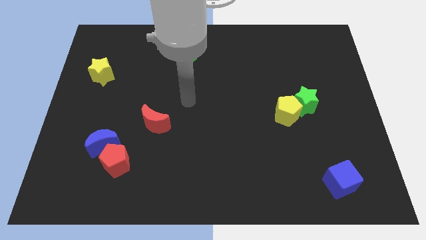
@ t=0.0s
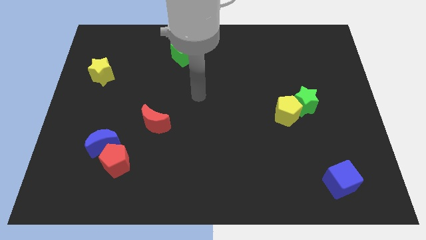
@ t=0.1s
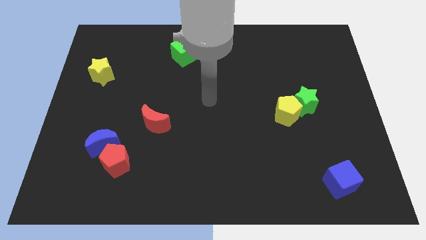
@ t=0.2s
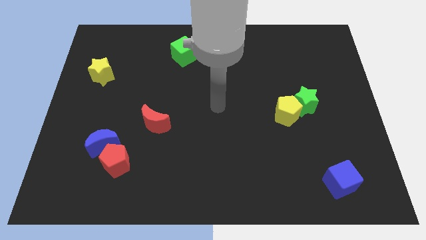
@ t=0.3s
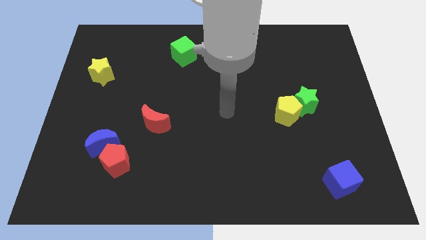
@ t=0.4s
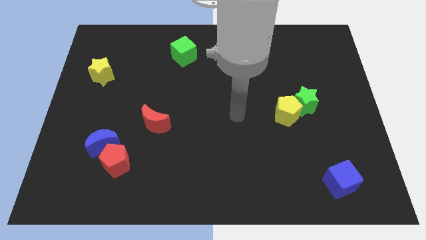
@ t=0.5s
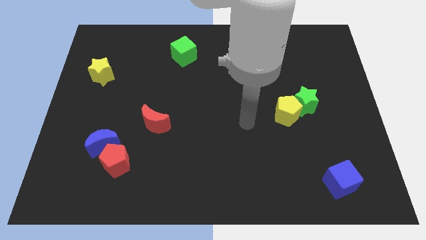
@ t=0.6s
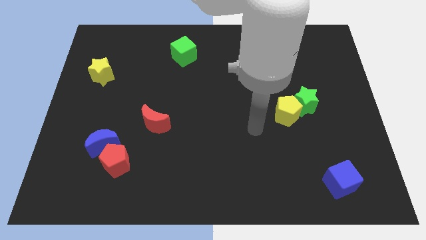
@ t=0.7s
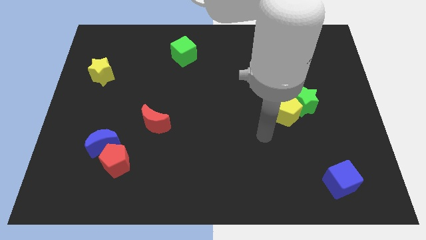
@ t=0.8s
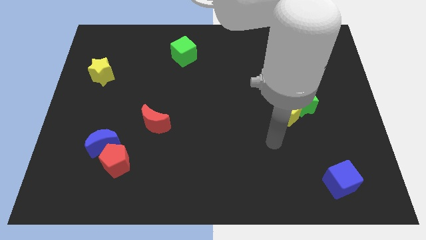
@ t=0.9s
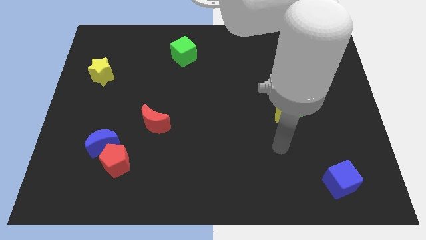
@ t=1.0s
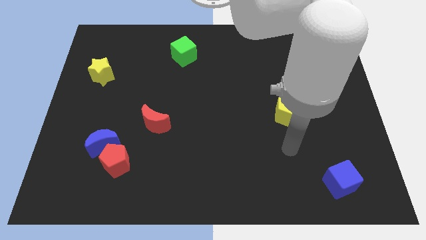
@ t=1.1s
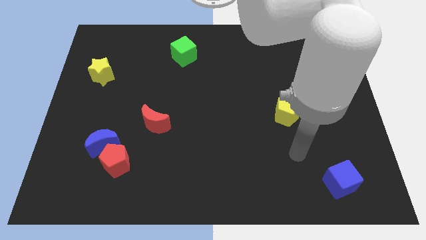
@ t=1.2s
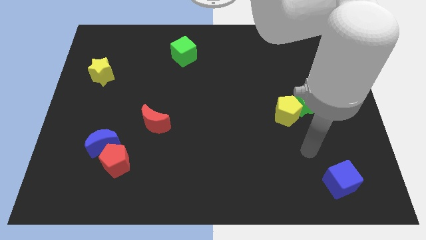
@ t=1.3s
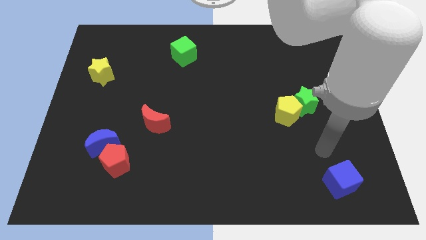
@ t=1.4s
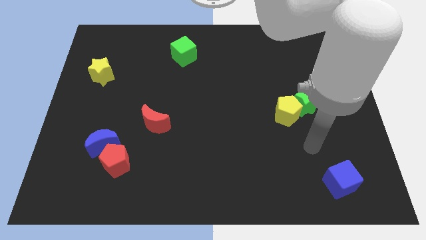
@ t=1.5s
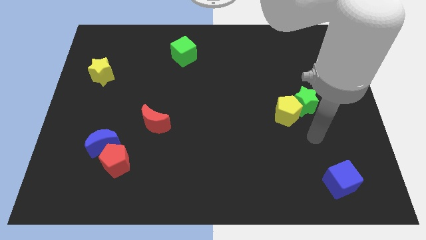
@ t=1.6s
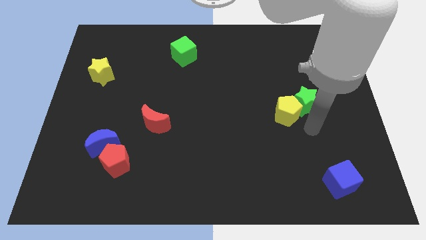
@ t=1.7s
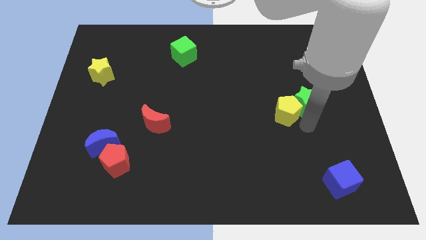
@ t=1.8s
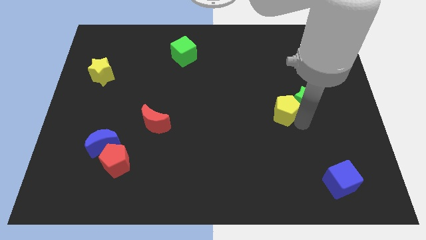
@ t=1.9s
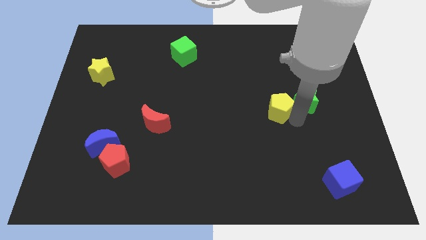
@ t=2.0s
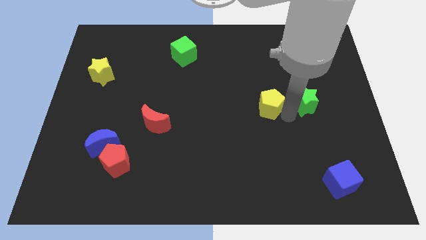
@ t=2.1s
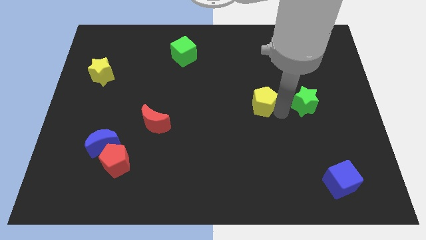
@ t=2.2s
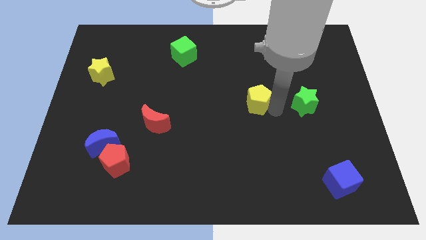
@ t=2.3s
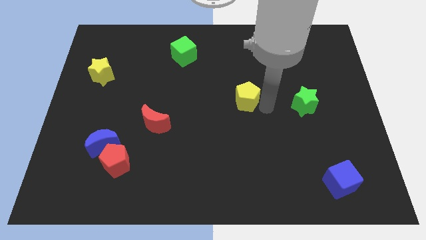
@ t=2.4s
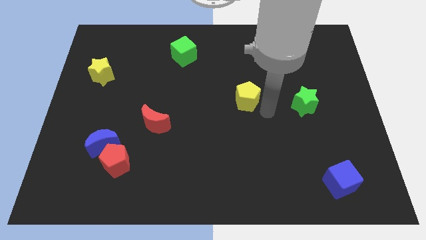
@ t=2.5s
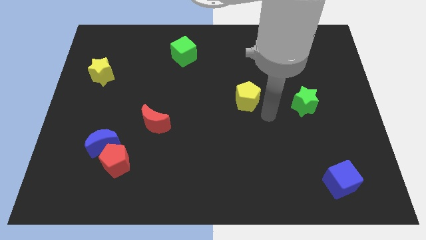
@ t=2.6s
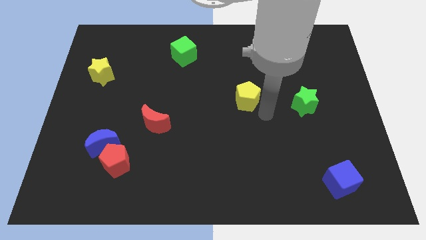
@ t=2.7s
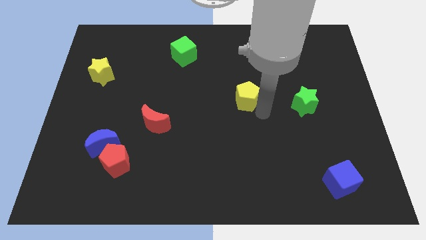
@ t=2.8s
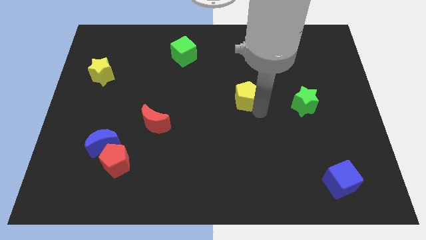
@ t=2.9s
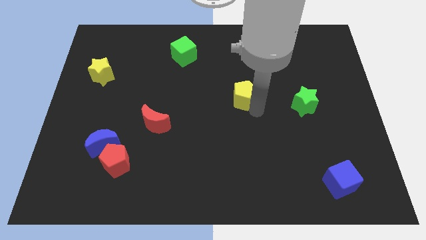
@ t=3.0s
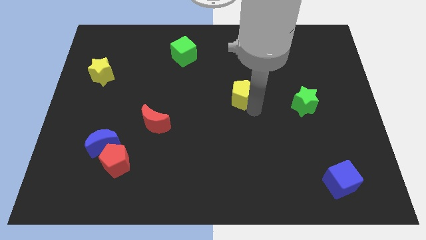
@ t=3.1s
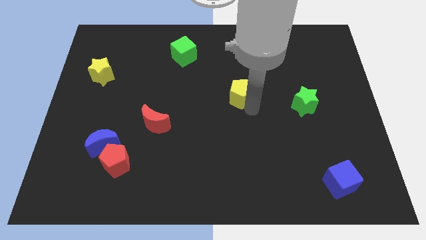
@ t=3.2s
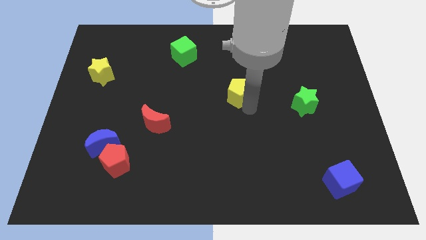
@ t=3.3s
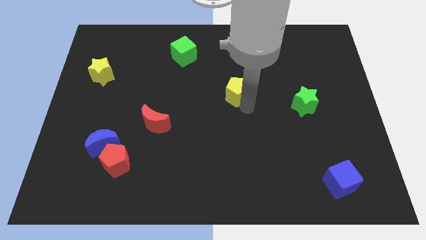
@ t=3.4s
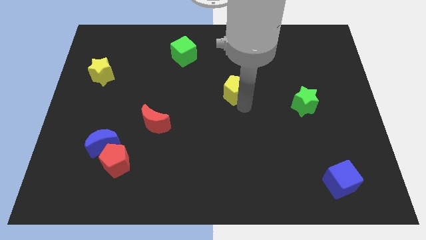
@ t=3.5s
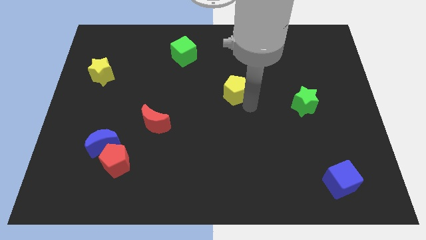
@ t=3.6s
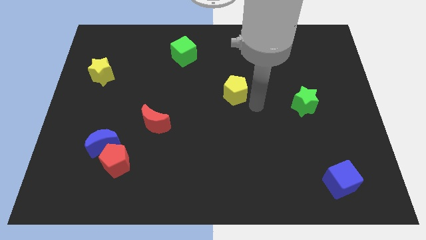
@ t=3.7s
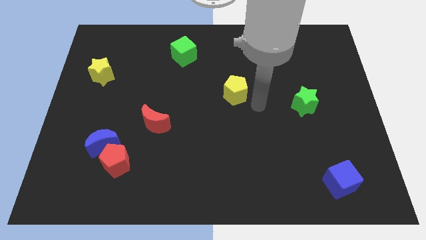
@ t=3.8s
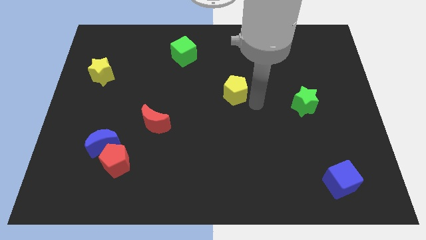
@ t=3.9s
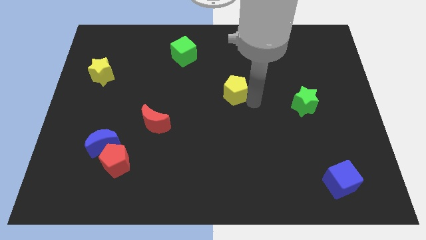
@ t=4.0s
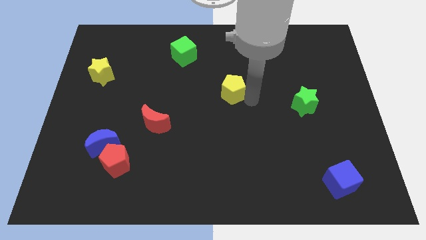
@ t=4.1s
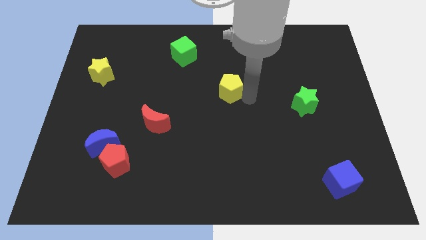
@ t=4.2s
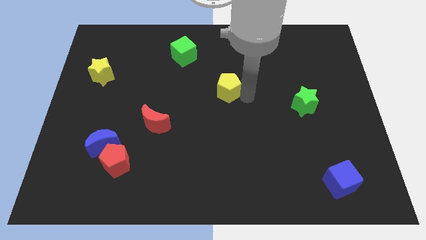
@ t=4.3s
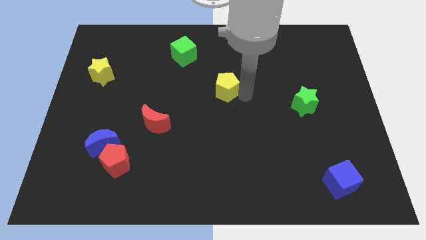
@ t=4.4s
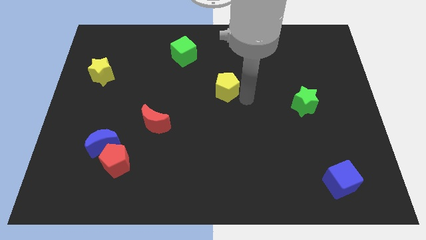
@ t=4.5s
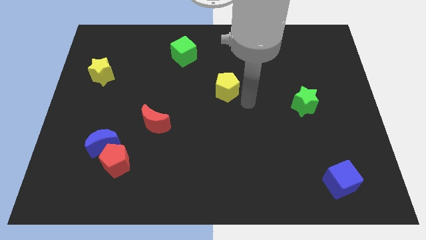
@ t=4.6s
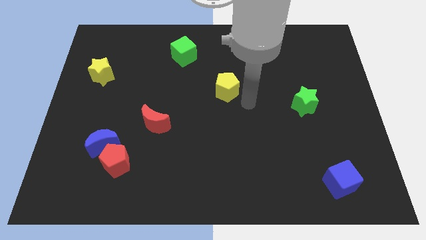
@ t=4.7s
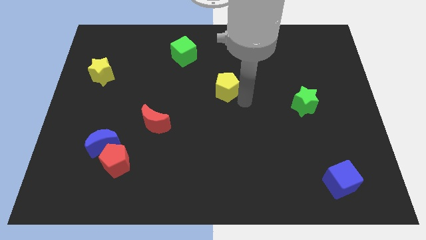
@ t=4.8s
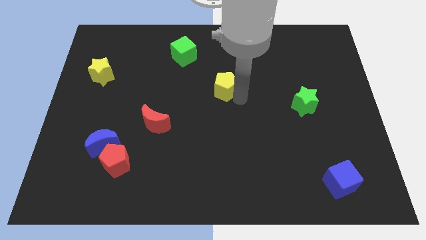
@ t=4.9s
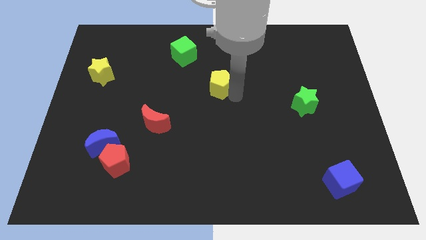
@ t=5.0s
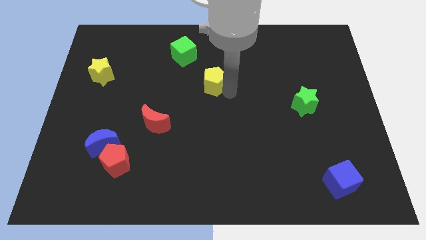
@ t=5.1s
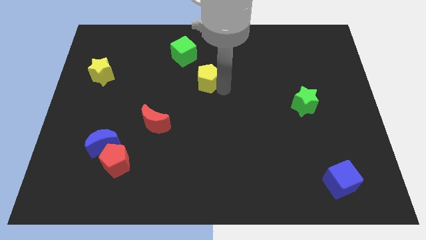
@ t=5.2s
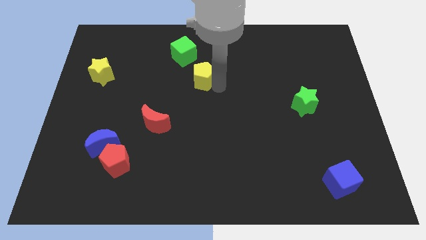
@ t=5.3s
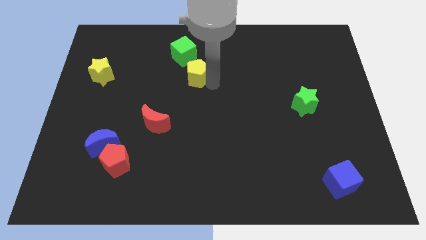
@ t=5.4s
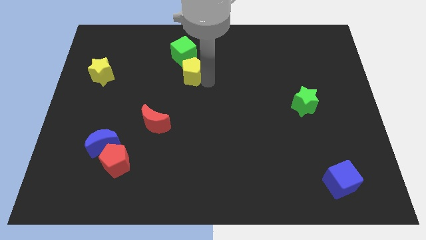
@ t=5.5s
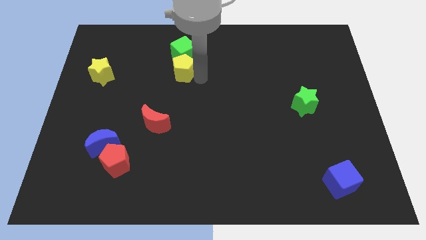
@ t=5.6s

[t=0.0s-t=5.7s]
put the yellow pentagon diagonally down and to the left of the green cube

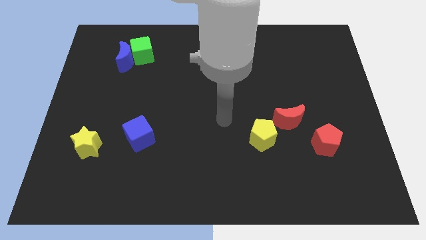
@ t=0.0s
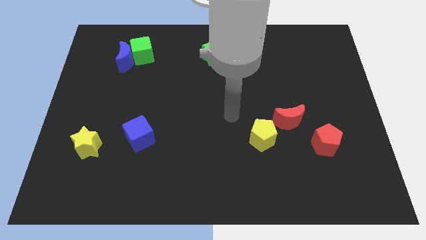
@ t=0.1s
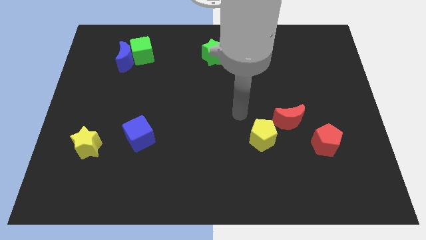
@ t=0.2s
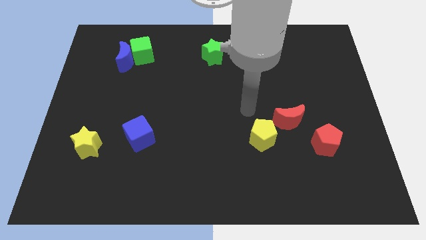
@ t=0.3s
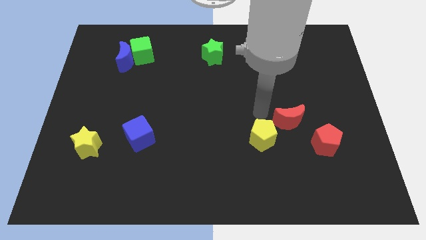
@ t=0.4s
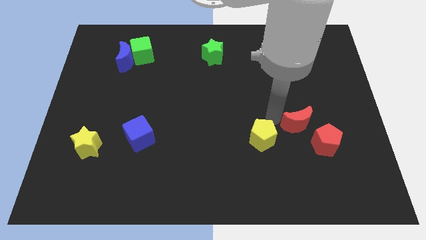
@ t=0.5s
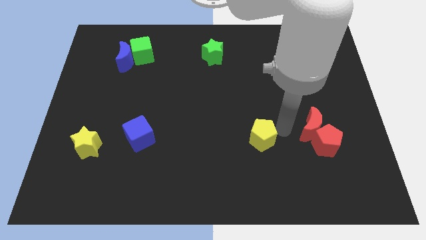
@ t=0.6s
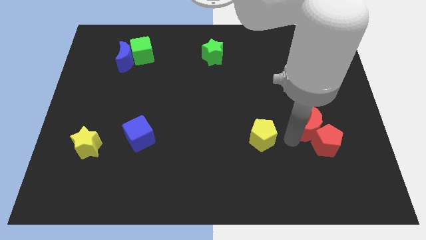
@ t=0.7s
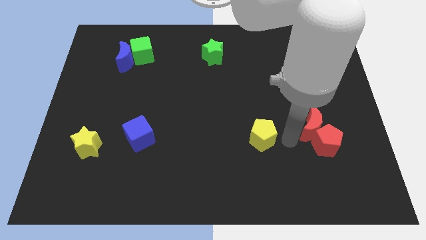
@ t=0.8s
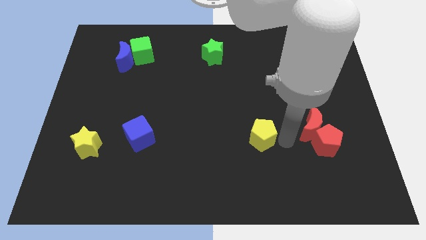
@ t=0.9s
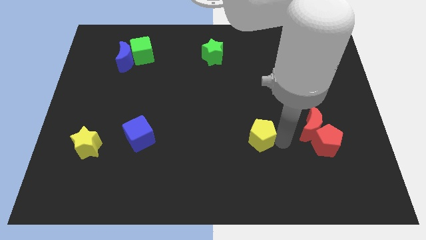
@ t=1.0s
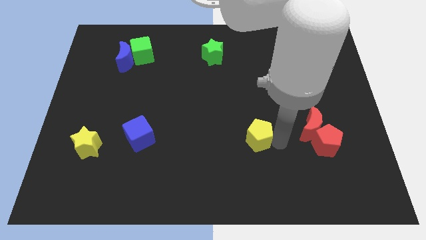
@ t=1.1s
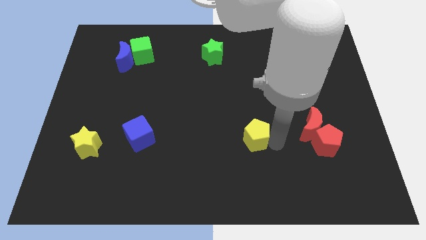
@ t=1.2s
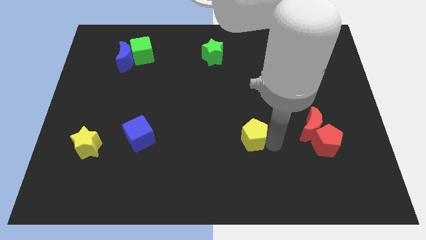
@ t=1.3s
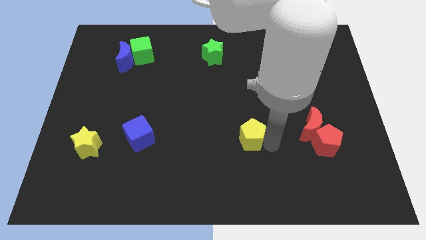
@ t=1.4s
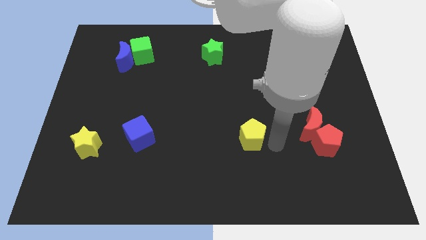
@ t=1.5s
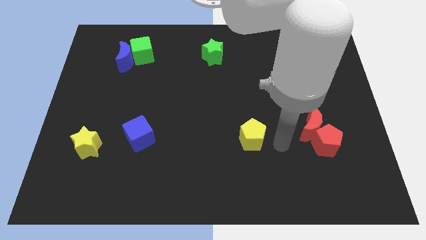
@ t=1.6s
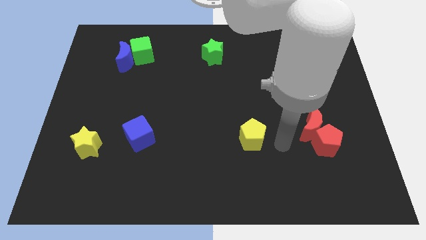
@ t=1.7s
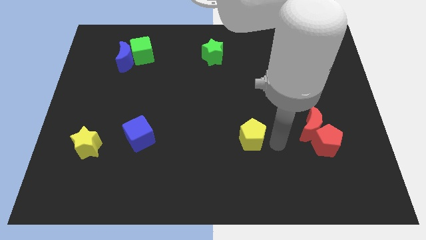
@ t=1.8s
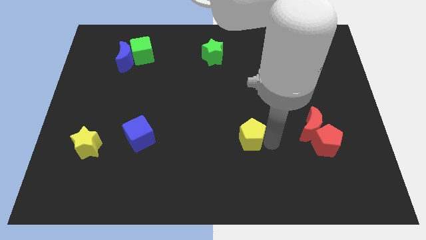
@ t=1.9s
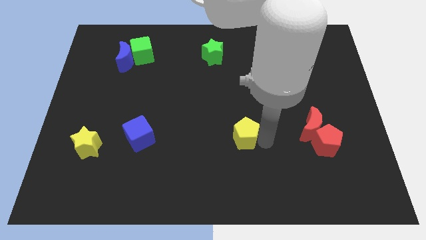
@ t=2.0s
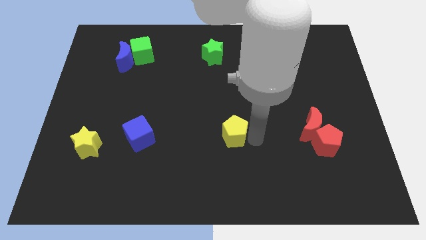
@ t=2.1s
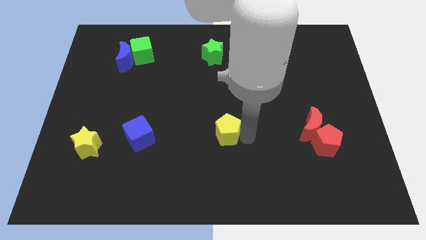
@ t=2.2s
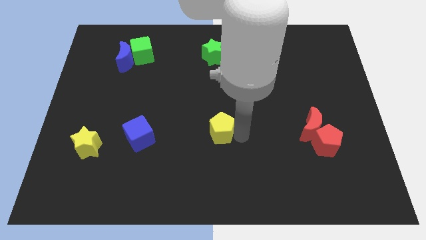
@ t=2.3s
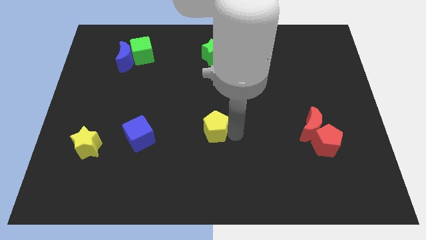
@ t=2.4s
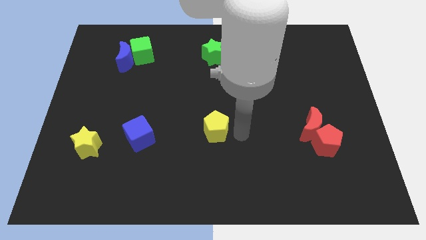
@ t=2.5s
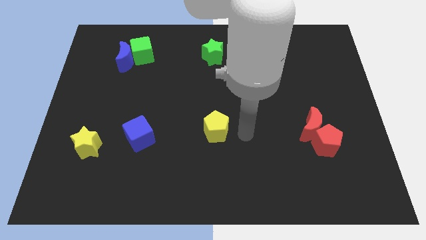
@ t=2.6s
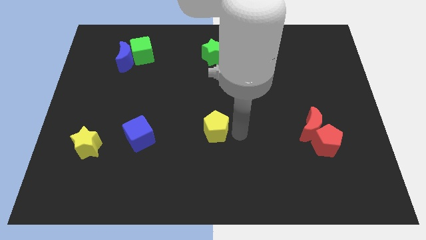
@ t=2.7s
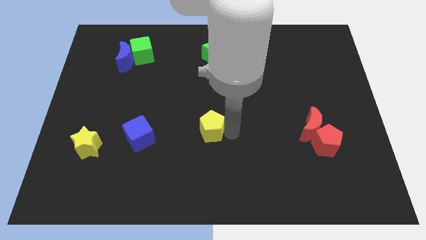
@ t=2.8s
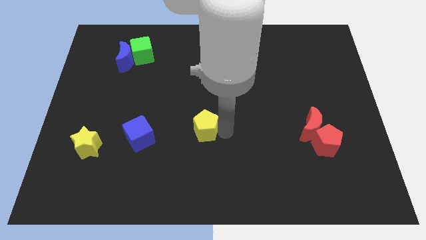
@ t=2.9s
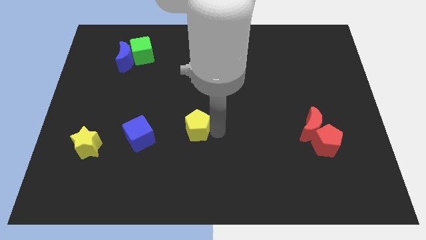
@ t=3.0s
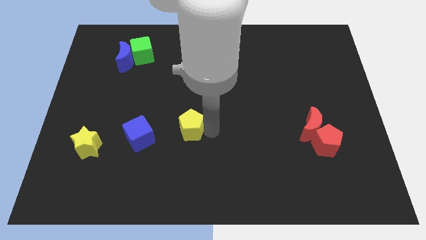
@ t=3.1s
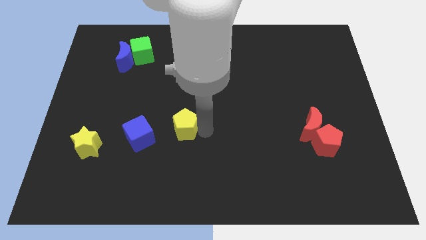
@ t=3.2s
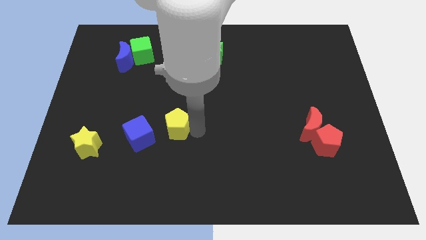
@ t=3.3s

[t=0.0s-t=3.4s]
move the yellow pentagon to the top right side of the blue cube
